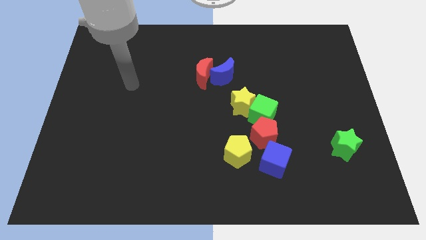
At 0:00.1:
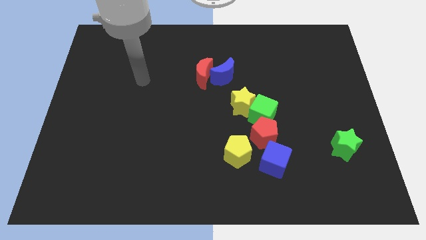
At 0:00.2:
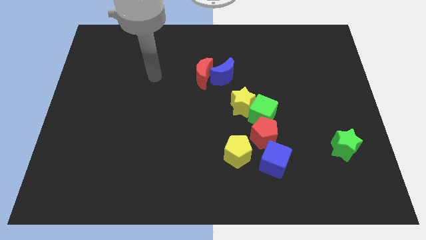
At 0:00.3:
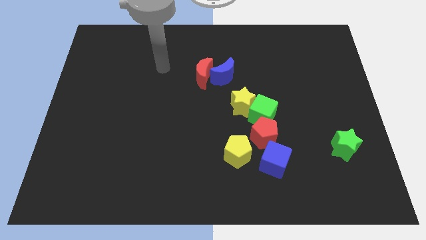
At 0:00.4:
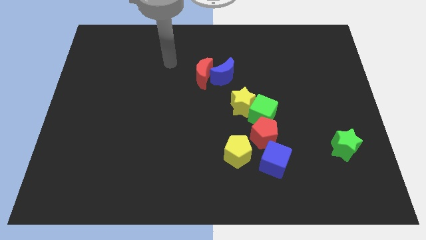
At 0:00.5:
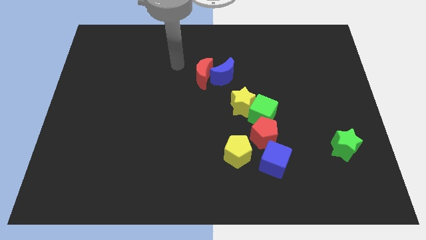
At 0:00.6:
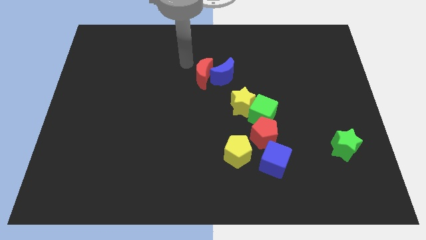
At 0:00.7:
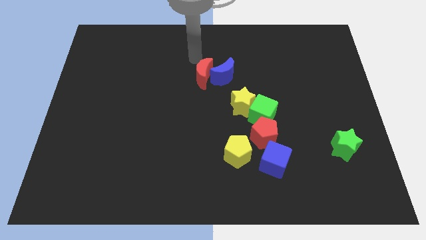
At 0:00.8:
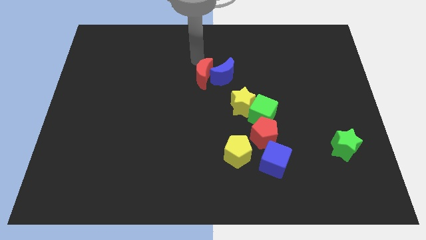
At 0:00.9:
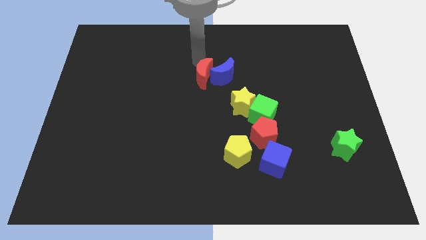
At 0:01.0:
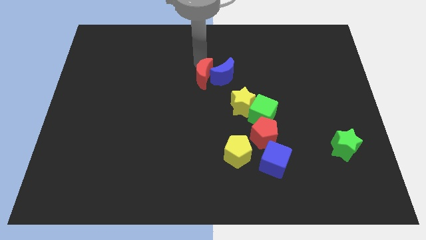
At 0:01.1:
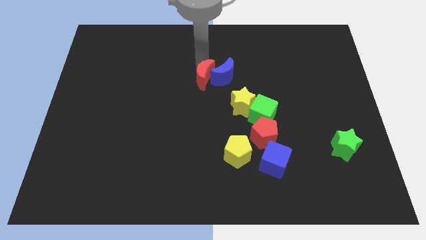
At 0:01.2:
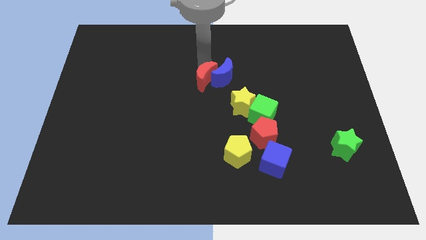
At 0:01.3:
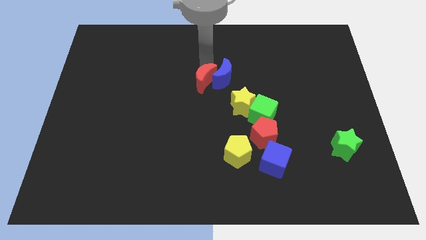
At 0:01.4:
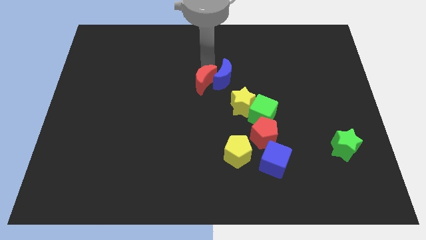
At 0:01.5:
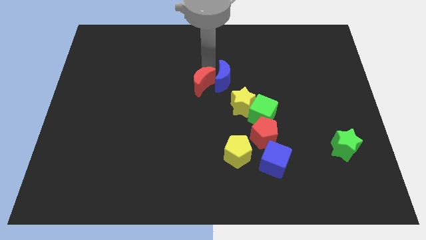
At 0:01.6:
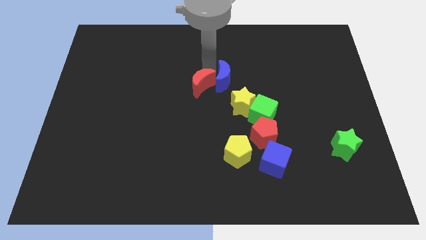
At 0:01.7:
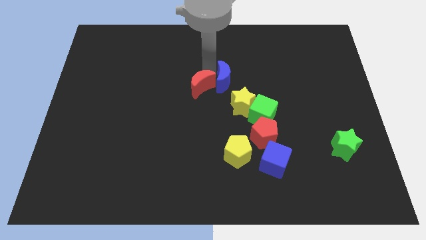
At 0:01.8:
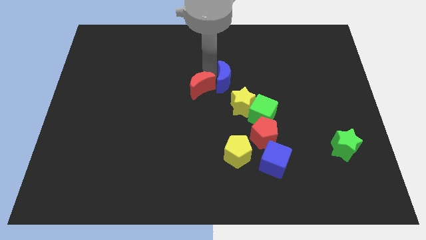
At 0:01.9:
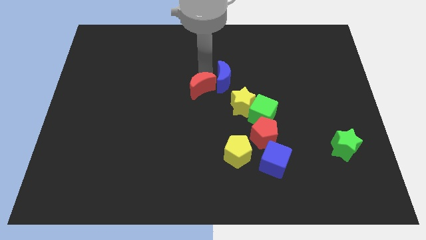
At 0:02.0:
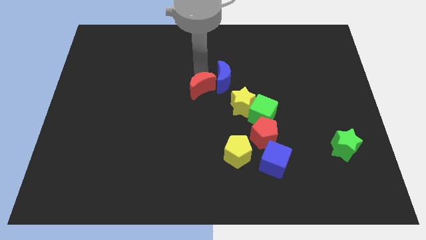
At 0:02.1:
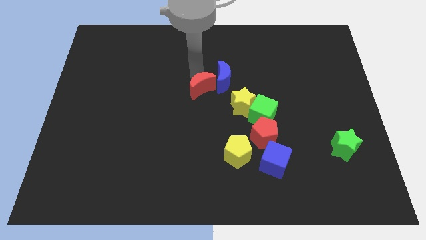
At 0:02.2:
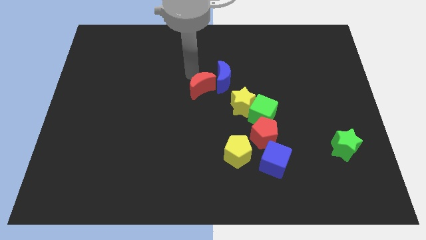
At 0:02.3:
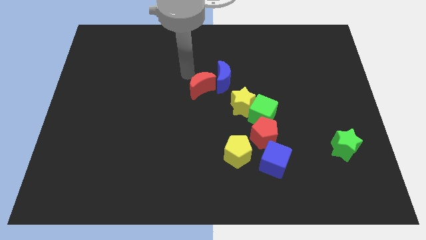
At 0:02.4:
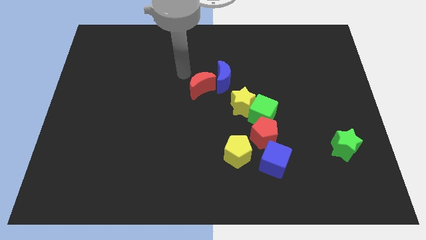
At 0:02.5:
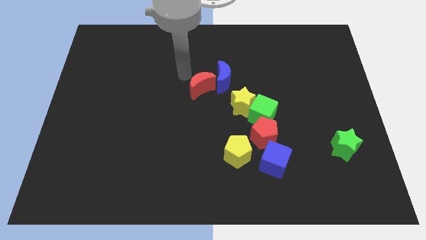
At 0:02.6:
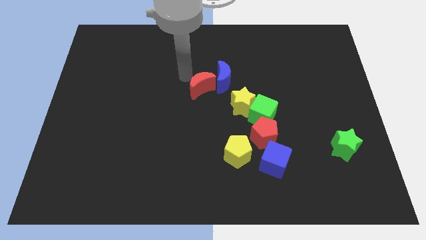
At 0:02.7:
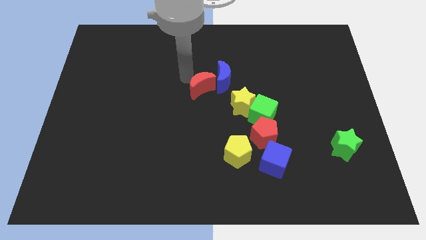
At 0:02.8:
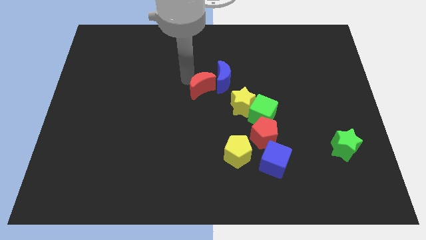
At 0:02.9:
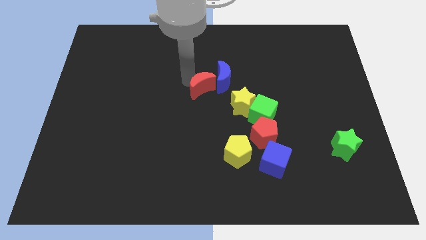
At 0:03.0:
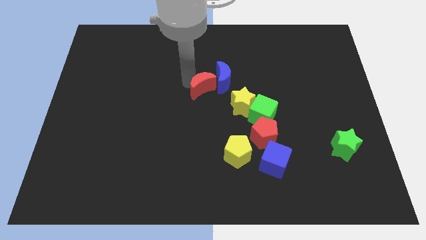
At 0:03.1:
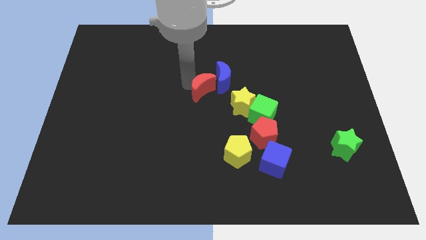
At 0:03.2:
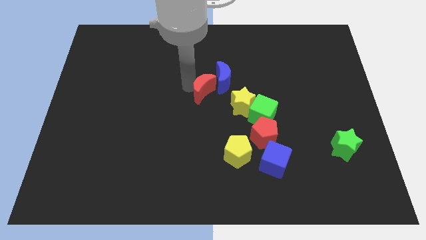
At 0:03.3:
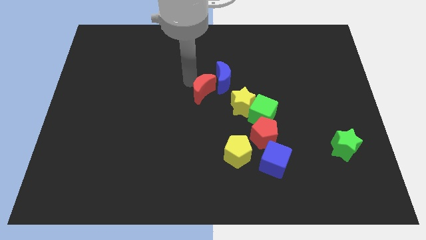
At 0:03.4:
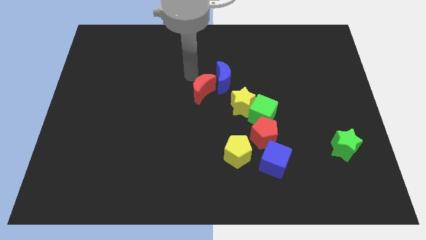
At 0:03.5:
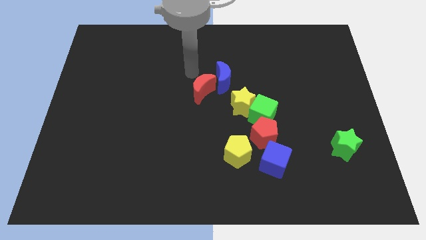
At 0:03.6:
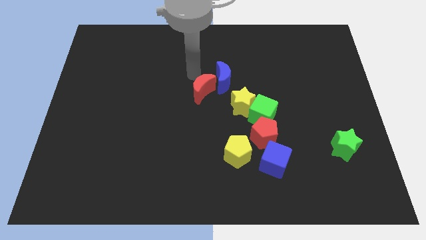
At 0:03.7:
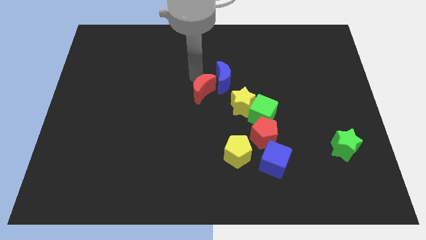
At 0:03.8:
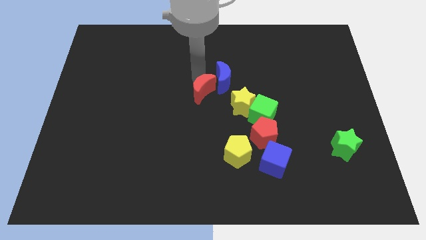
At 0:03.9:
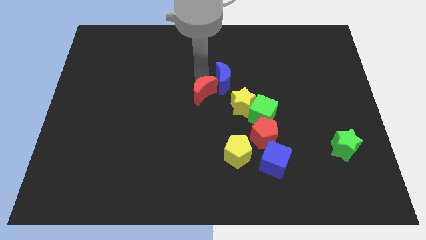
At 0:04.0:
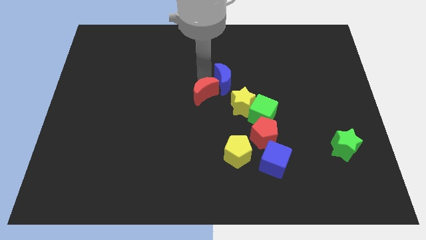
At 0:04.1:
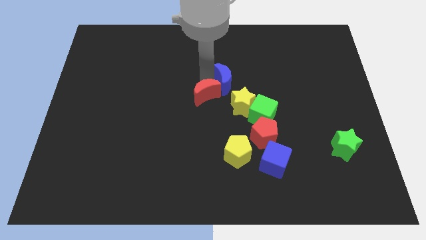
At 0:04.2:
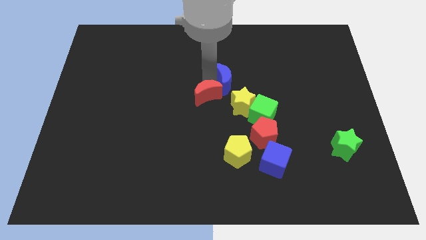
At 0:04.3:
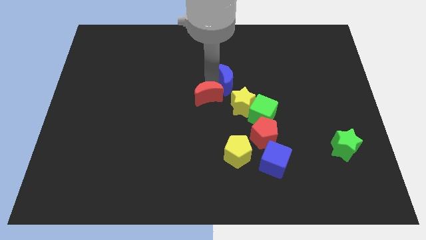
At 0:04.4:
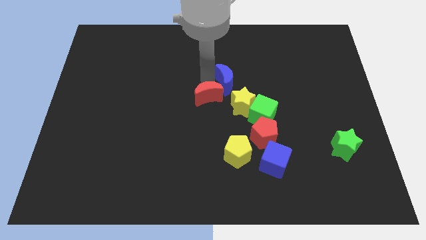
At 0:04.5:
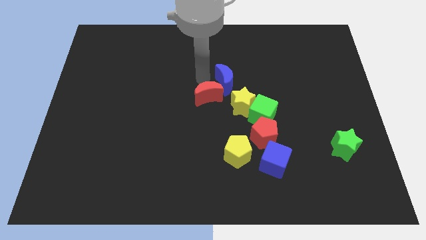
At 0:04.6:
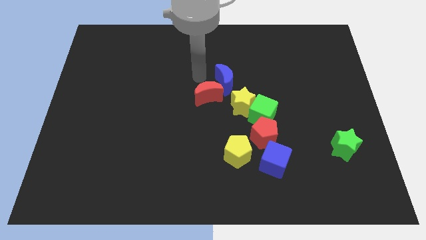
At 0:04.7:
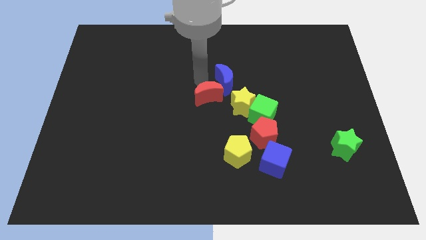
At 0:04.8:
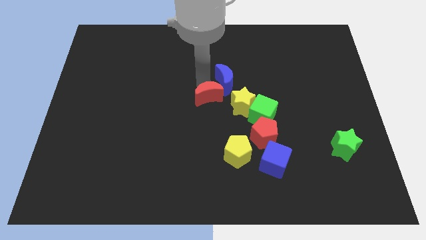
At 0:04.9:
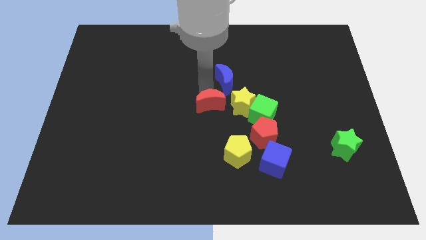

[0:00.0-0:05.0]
put the red moon to the left of the green cube

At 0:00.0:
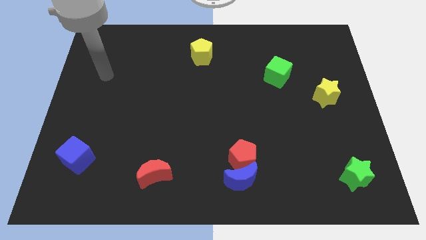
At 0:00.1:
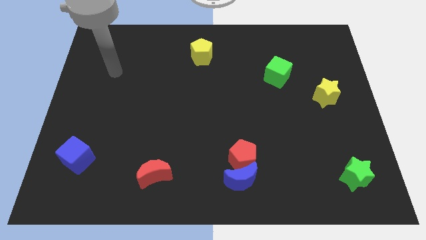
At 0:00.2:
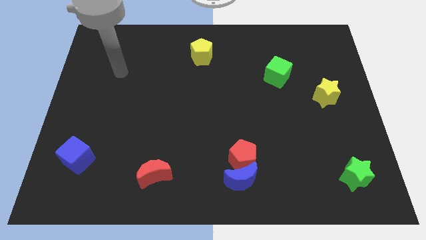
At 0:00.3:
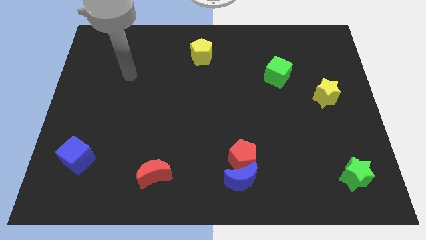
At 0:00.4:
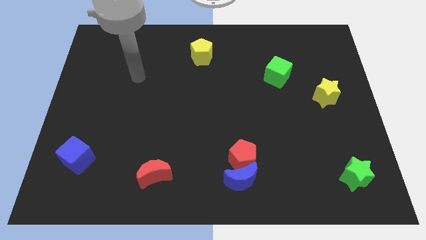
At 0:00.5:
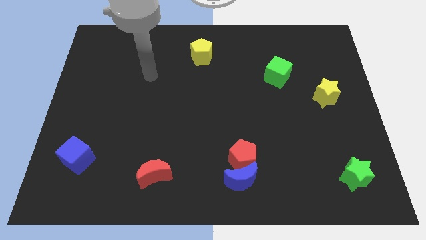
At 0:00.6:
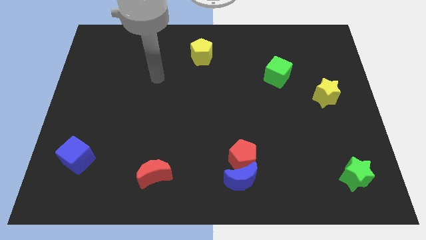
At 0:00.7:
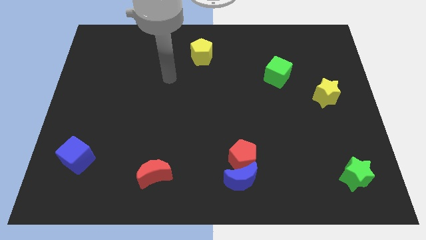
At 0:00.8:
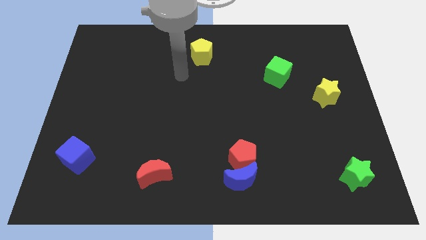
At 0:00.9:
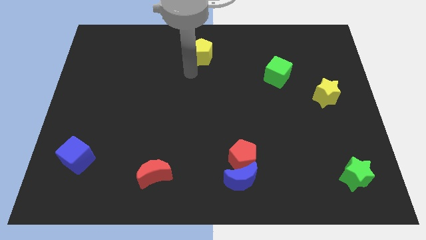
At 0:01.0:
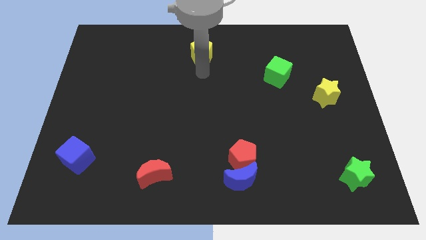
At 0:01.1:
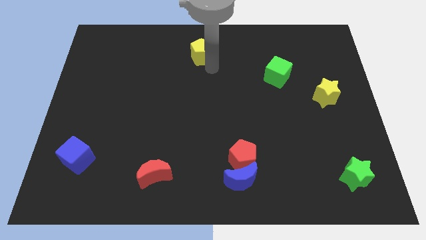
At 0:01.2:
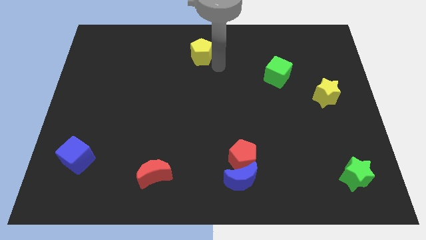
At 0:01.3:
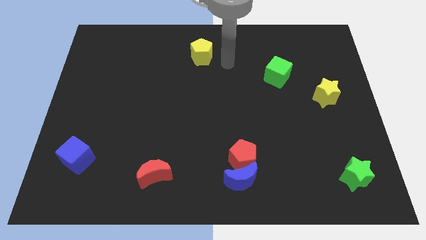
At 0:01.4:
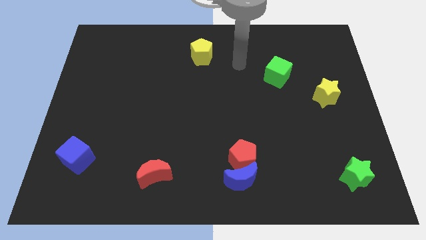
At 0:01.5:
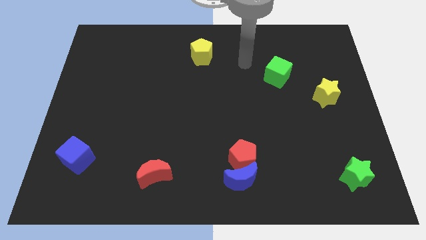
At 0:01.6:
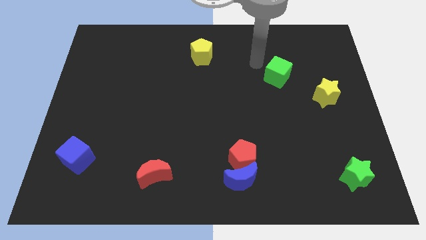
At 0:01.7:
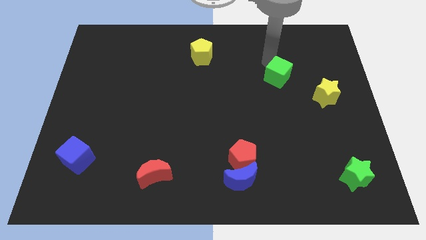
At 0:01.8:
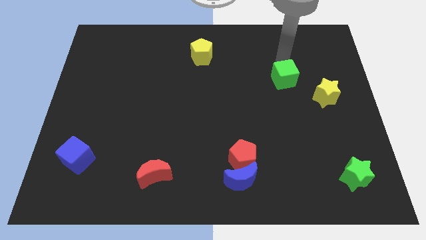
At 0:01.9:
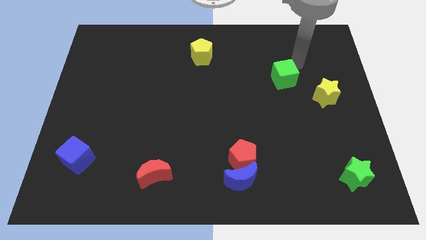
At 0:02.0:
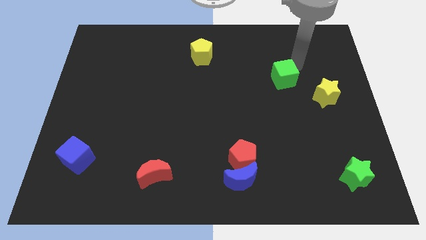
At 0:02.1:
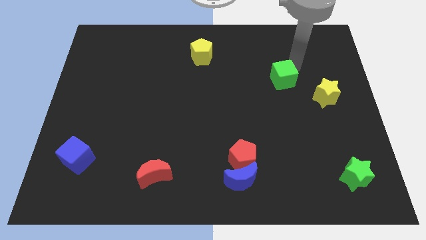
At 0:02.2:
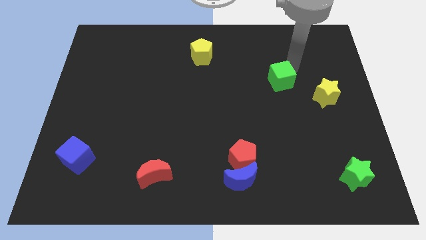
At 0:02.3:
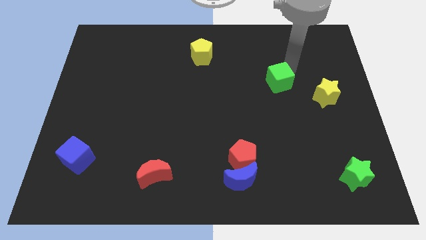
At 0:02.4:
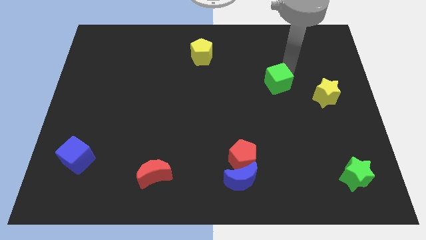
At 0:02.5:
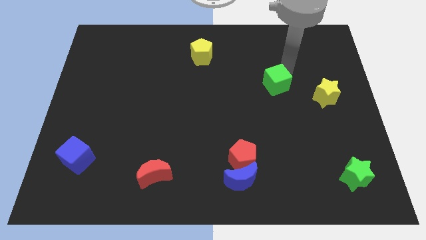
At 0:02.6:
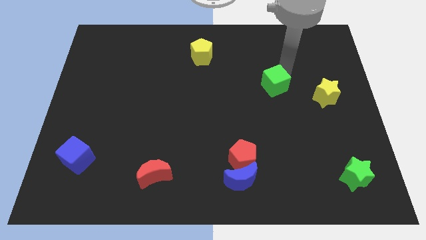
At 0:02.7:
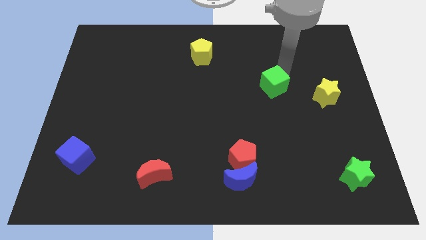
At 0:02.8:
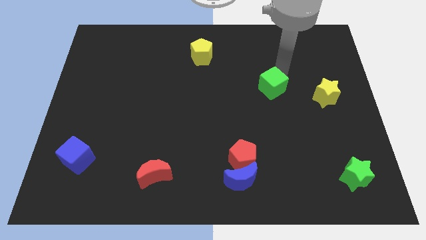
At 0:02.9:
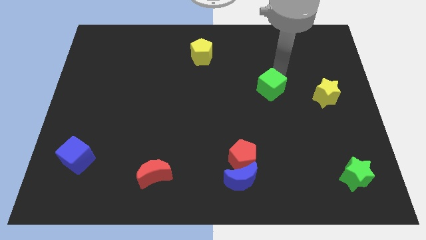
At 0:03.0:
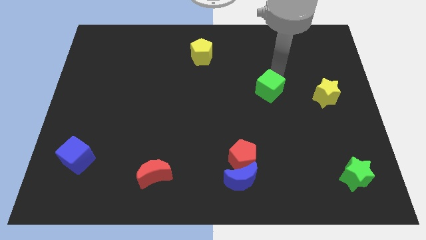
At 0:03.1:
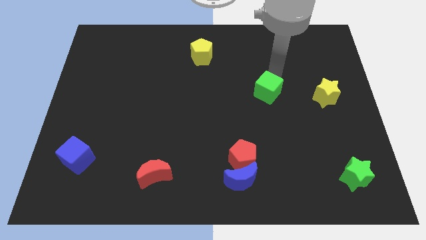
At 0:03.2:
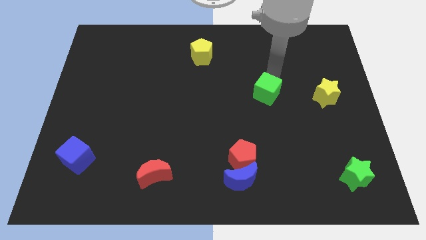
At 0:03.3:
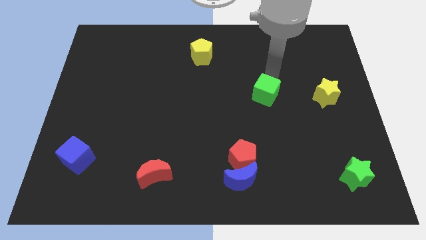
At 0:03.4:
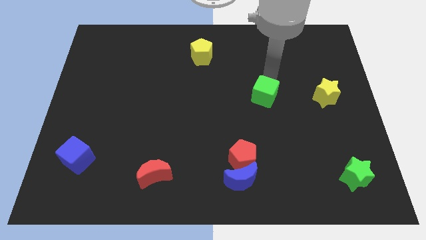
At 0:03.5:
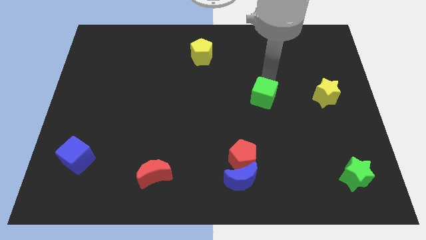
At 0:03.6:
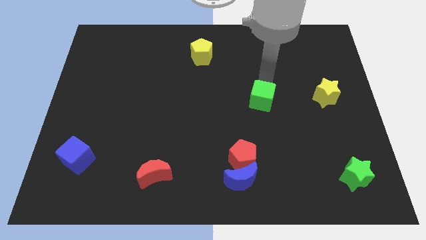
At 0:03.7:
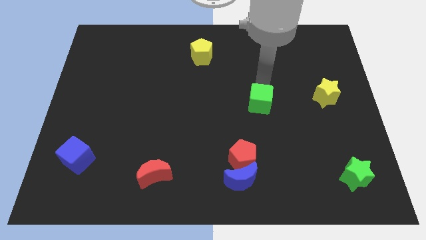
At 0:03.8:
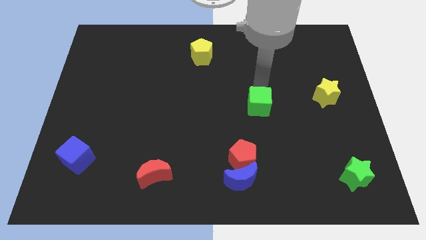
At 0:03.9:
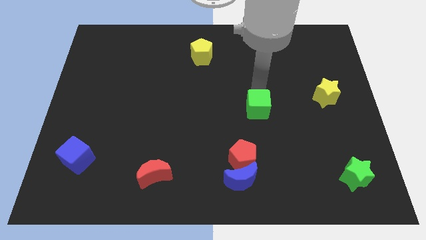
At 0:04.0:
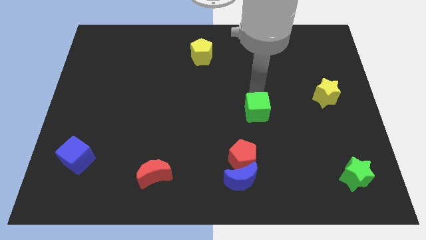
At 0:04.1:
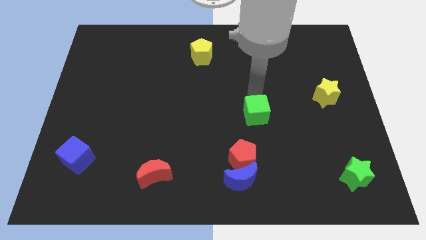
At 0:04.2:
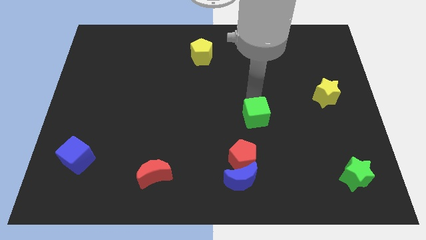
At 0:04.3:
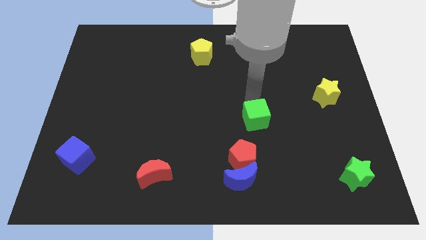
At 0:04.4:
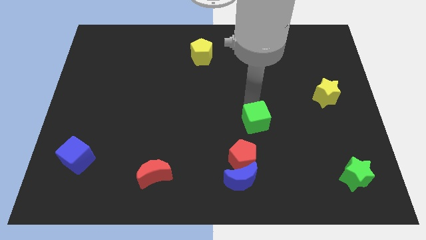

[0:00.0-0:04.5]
move the green cube to the top right side of the red pentagon
